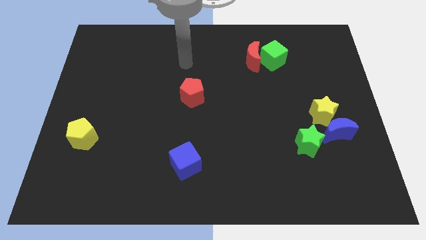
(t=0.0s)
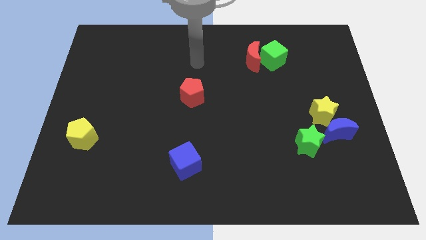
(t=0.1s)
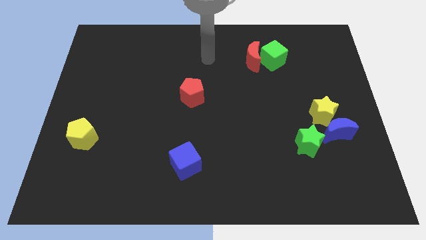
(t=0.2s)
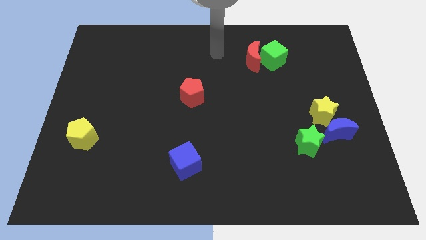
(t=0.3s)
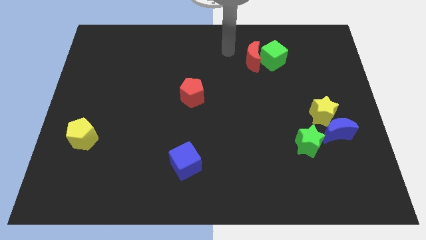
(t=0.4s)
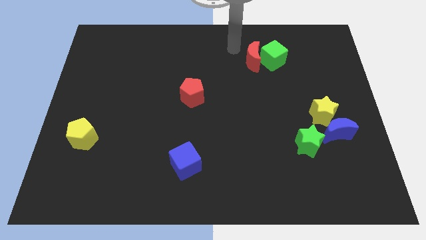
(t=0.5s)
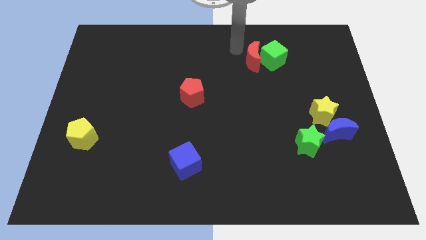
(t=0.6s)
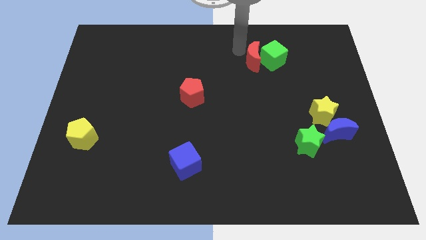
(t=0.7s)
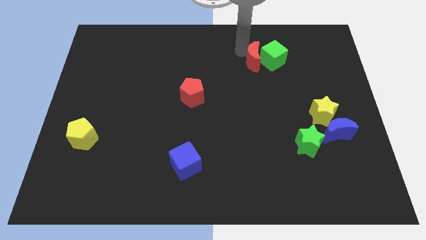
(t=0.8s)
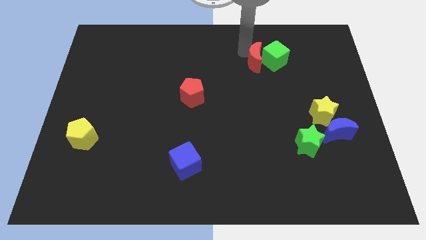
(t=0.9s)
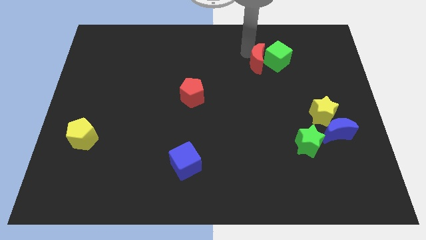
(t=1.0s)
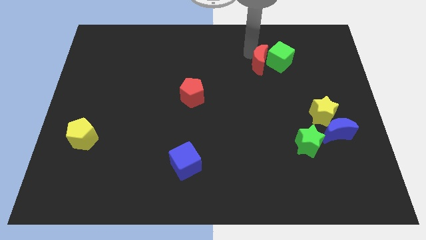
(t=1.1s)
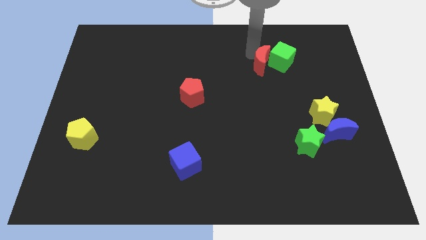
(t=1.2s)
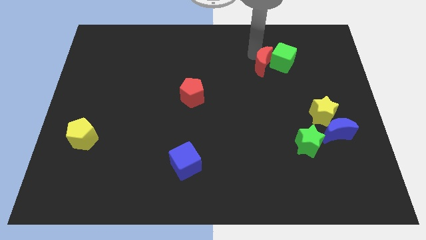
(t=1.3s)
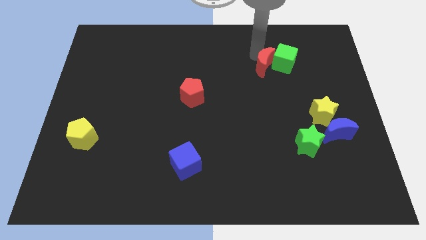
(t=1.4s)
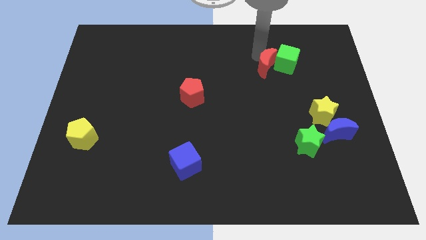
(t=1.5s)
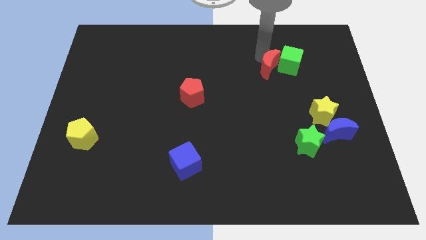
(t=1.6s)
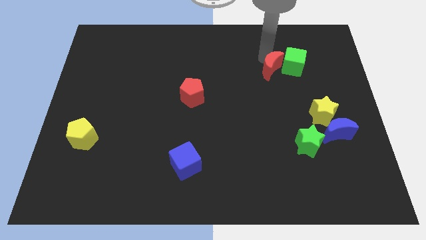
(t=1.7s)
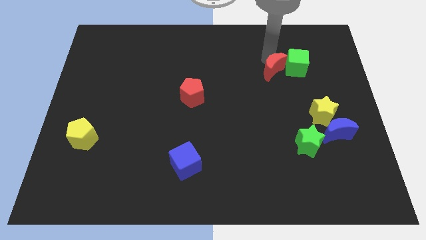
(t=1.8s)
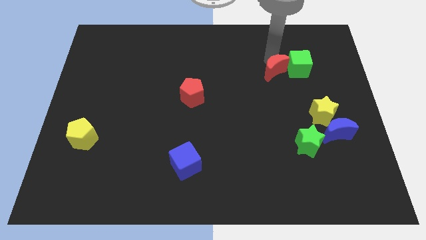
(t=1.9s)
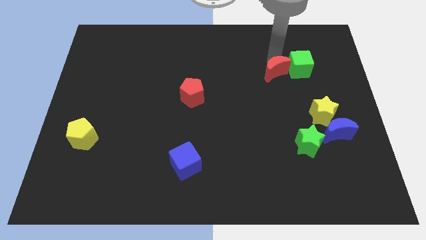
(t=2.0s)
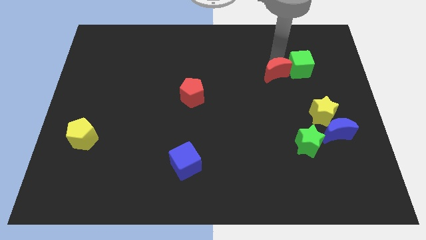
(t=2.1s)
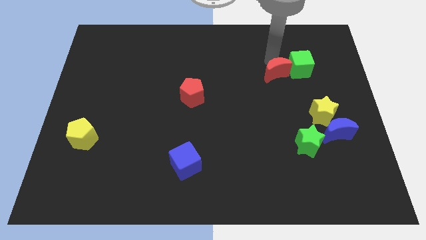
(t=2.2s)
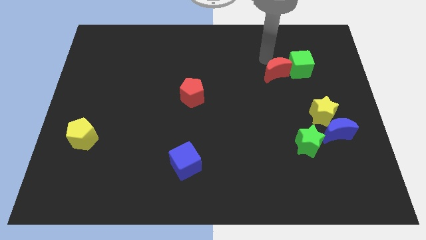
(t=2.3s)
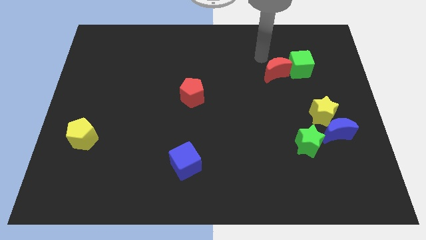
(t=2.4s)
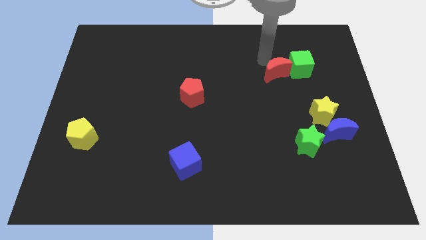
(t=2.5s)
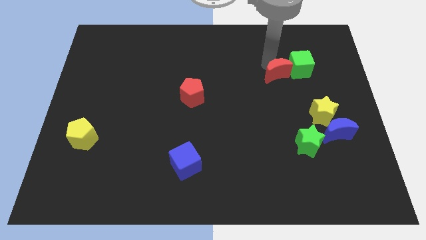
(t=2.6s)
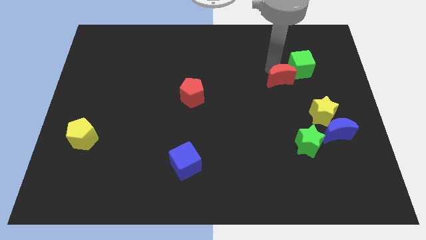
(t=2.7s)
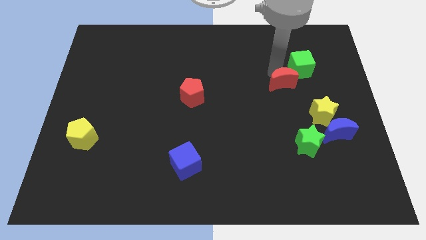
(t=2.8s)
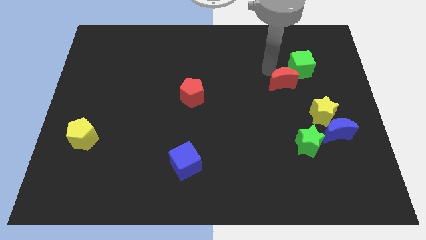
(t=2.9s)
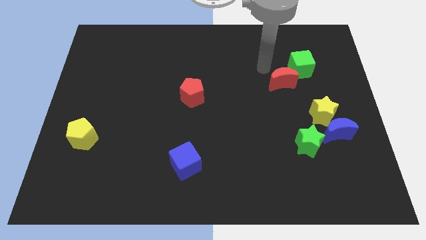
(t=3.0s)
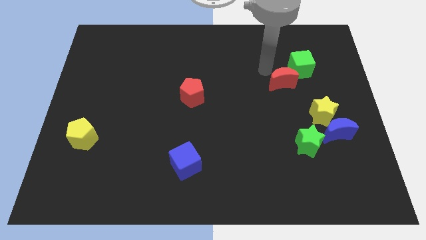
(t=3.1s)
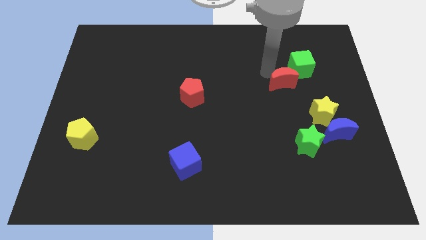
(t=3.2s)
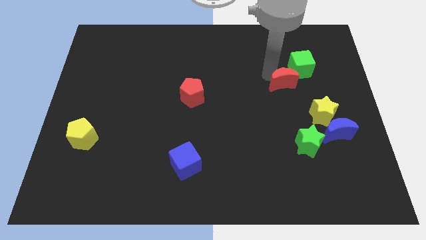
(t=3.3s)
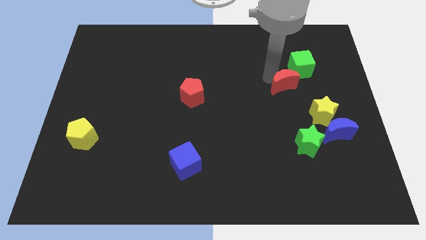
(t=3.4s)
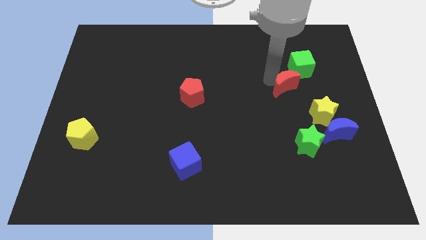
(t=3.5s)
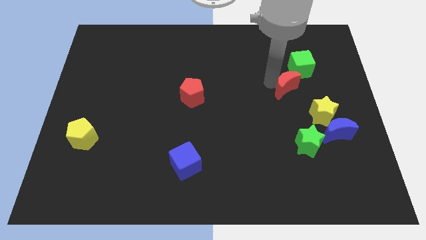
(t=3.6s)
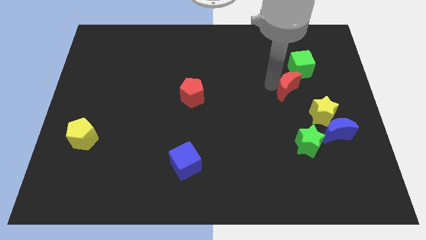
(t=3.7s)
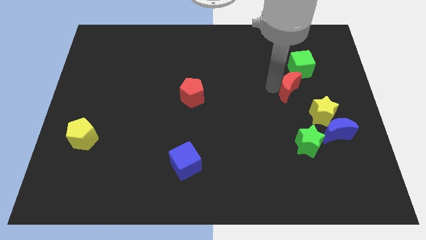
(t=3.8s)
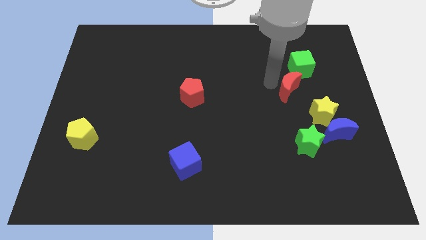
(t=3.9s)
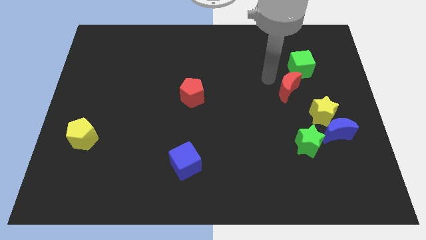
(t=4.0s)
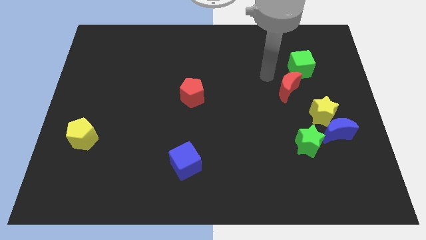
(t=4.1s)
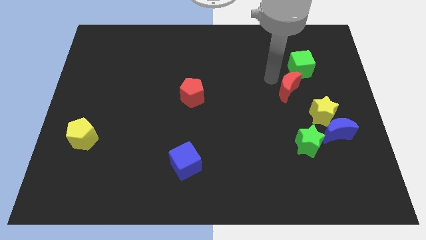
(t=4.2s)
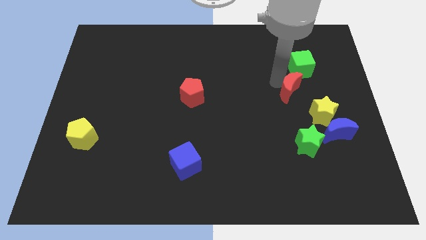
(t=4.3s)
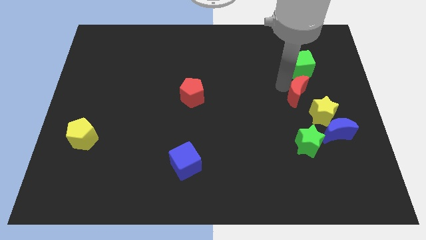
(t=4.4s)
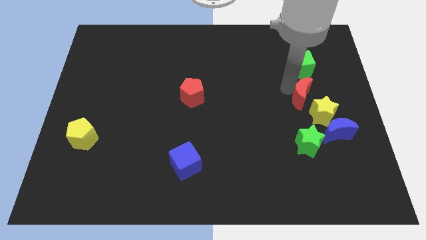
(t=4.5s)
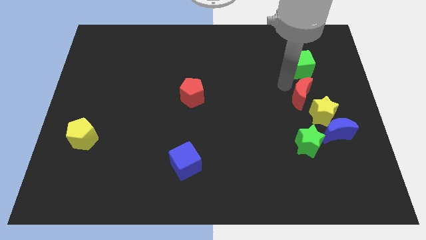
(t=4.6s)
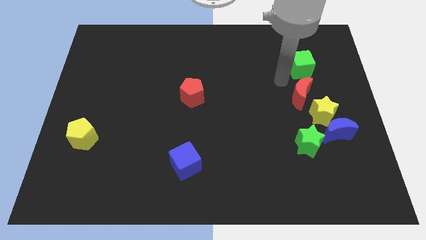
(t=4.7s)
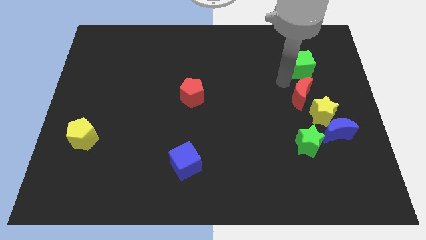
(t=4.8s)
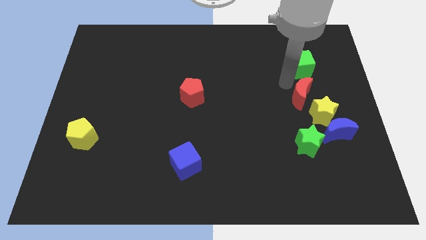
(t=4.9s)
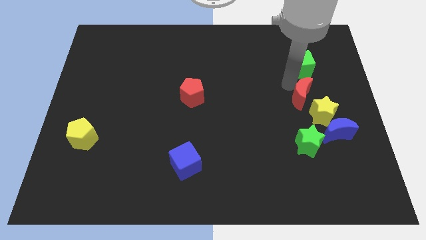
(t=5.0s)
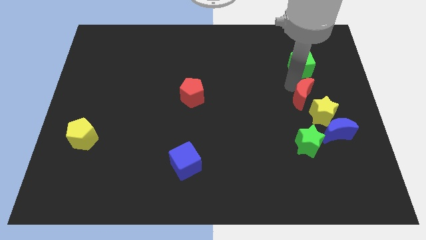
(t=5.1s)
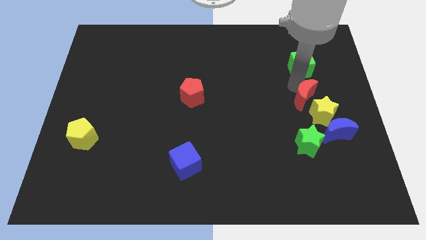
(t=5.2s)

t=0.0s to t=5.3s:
move the red moon to the yellow star

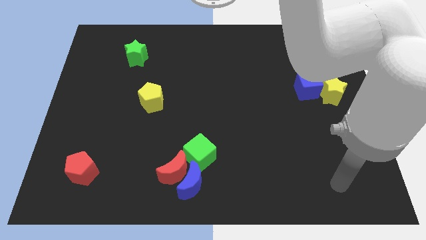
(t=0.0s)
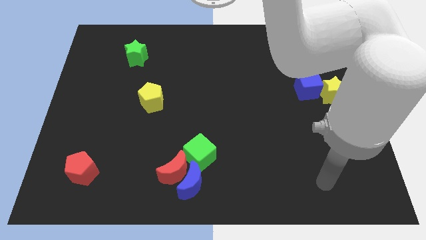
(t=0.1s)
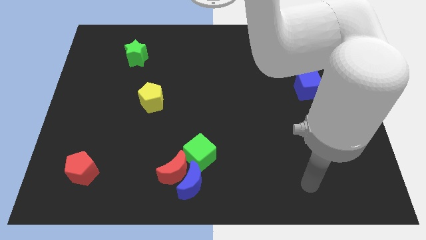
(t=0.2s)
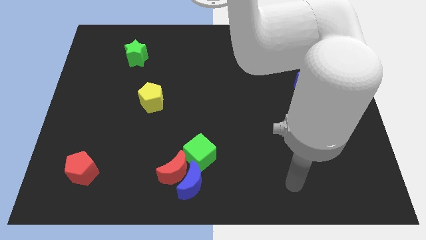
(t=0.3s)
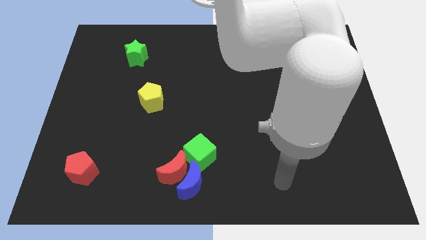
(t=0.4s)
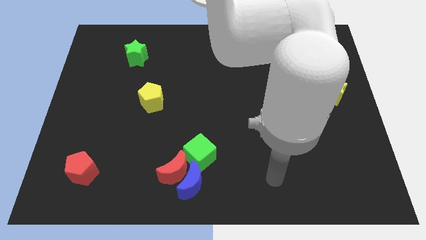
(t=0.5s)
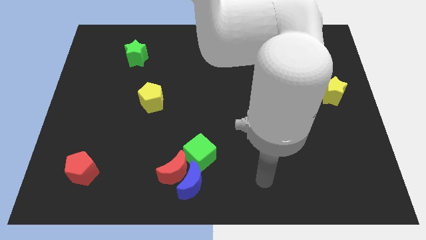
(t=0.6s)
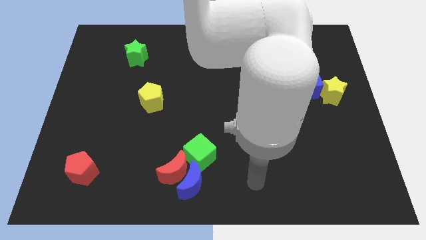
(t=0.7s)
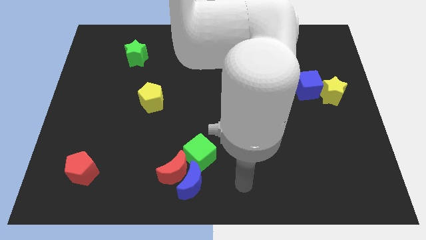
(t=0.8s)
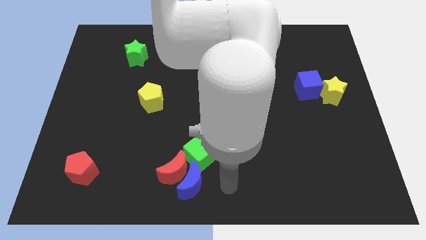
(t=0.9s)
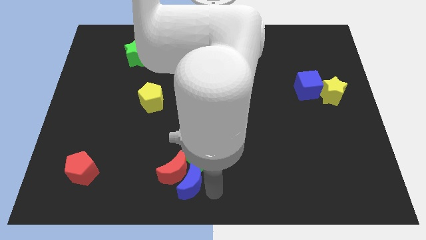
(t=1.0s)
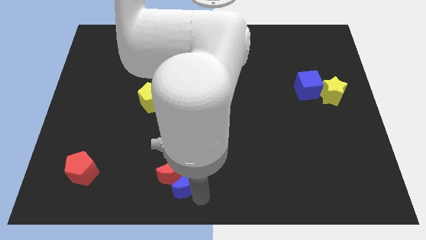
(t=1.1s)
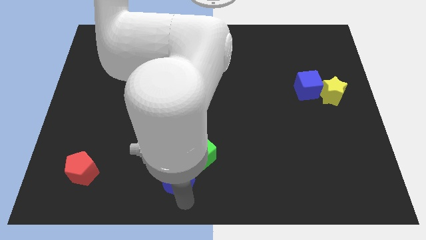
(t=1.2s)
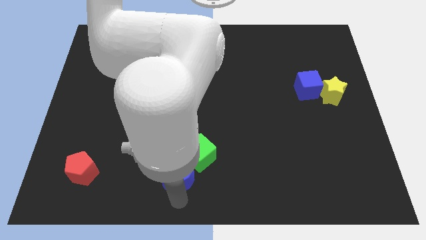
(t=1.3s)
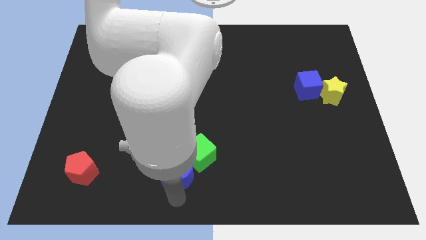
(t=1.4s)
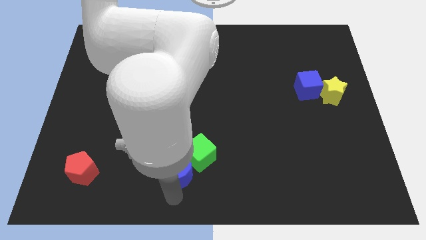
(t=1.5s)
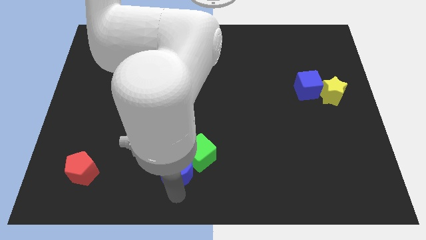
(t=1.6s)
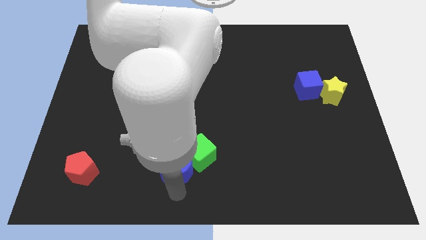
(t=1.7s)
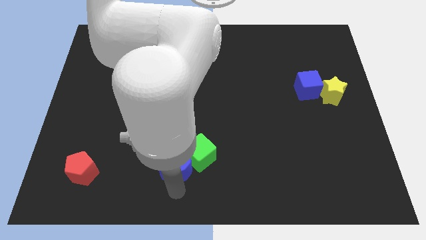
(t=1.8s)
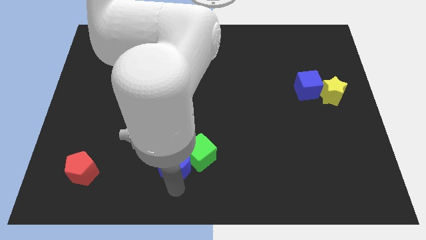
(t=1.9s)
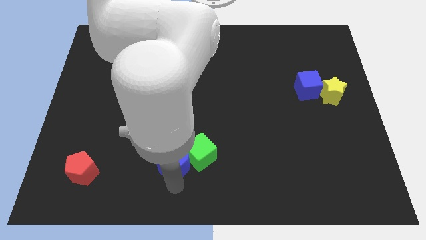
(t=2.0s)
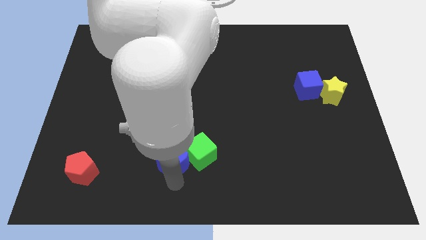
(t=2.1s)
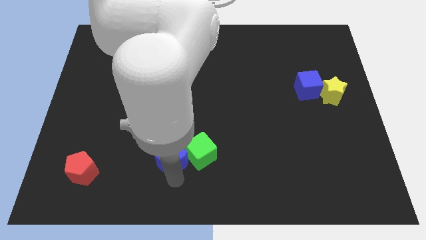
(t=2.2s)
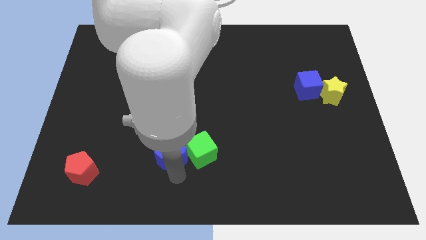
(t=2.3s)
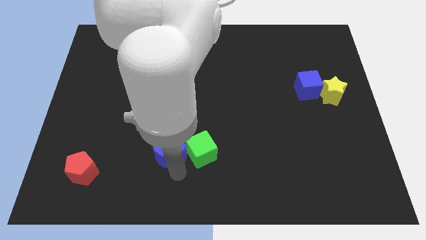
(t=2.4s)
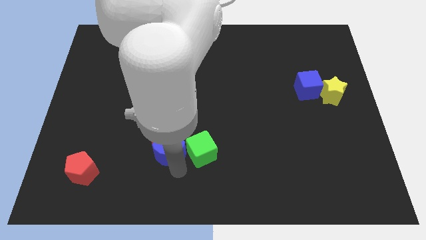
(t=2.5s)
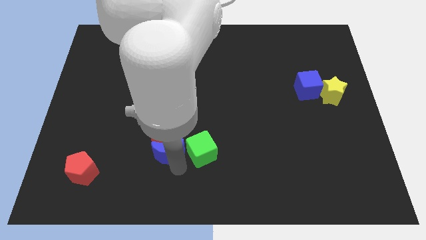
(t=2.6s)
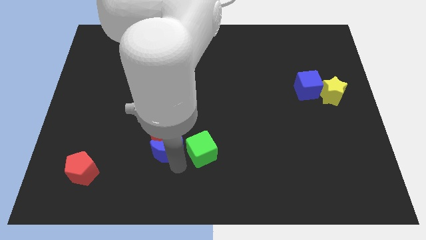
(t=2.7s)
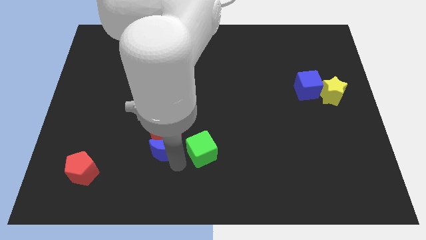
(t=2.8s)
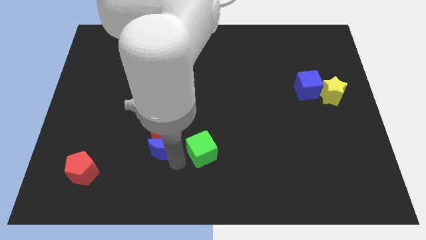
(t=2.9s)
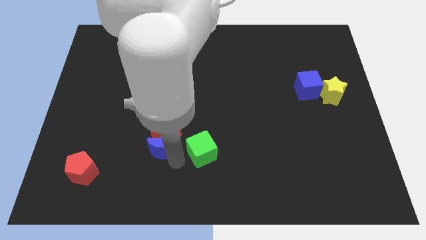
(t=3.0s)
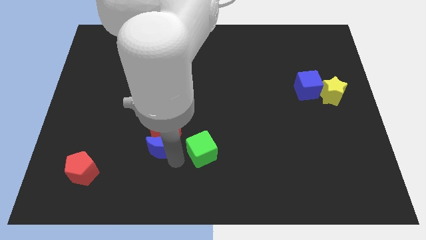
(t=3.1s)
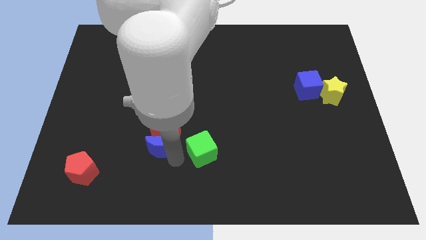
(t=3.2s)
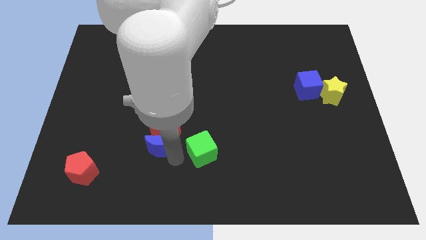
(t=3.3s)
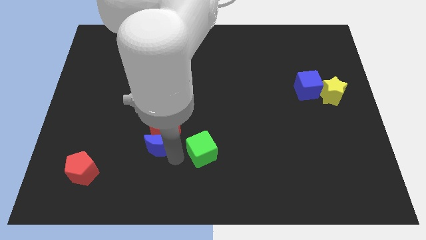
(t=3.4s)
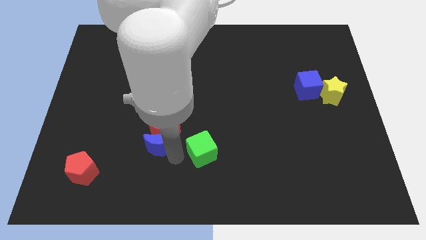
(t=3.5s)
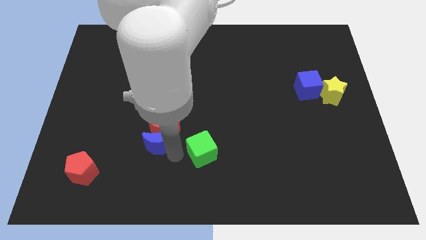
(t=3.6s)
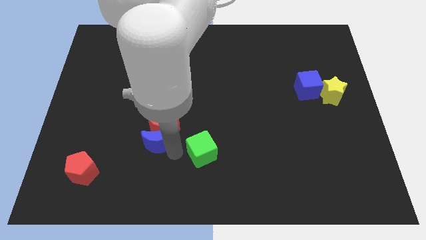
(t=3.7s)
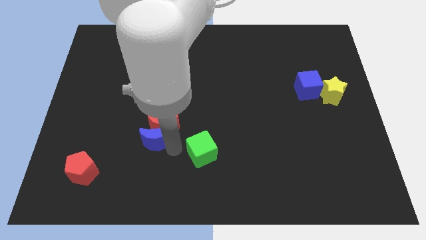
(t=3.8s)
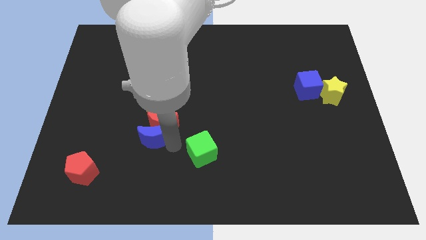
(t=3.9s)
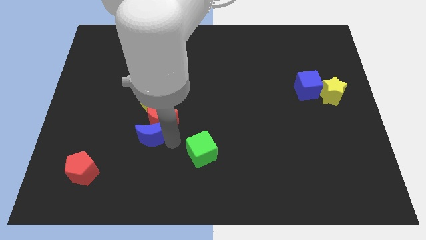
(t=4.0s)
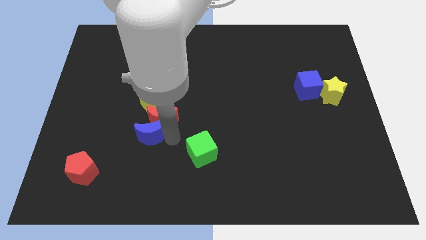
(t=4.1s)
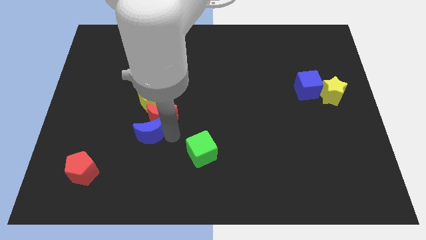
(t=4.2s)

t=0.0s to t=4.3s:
push the red moon close to the yellow pentagon
